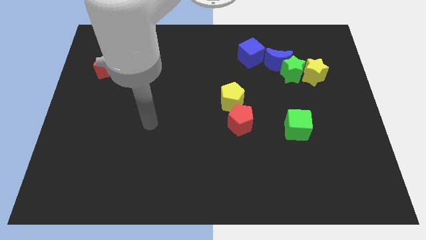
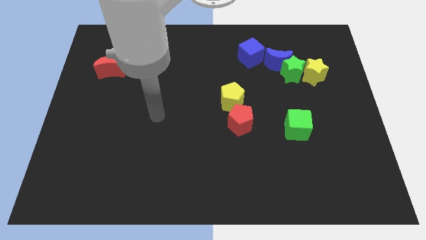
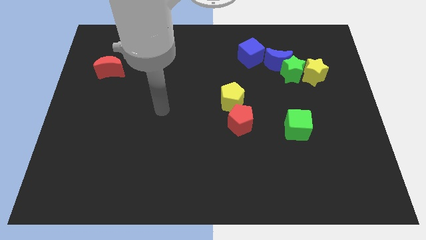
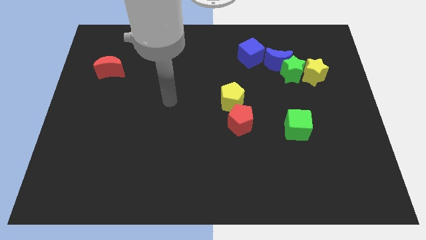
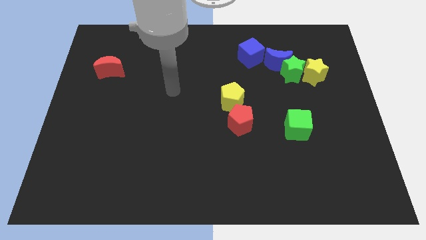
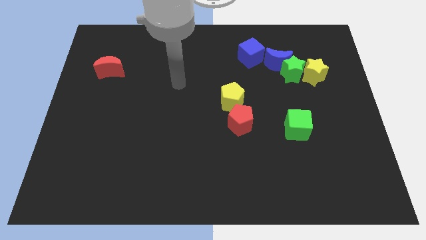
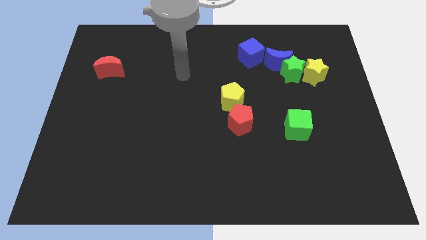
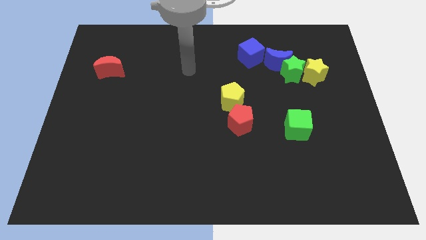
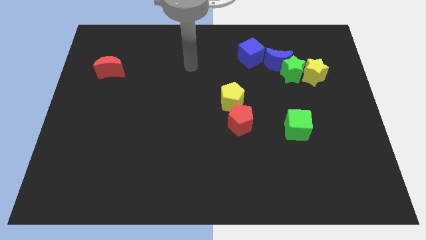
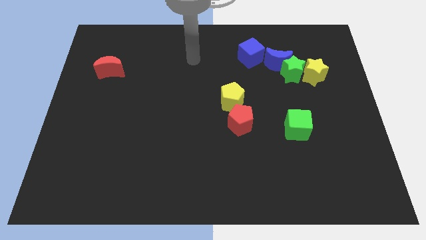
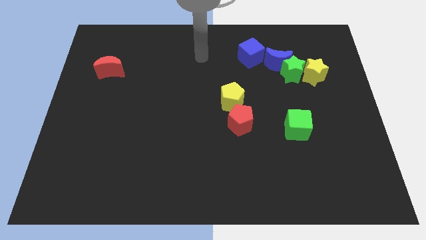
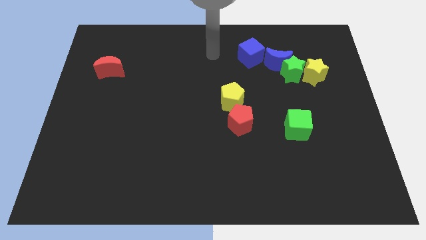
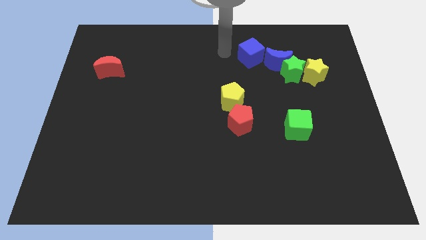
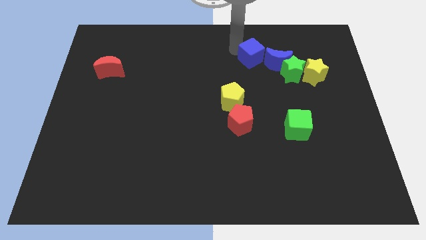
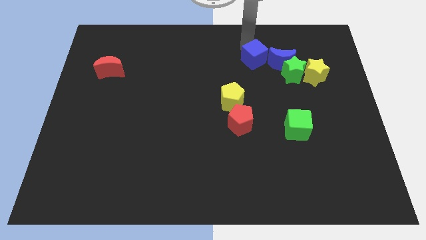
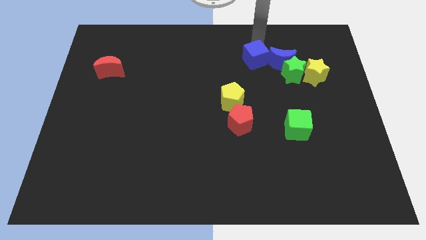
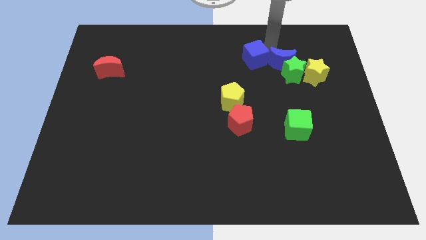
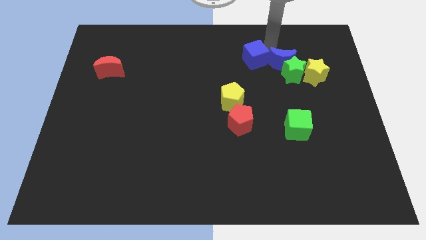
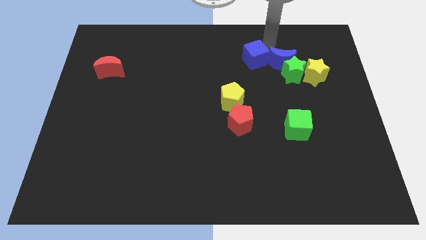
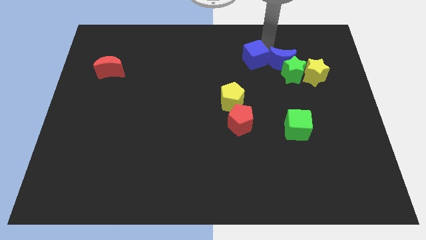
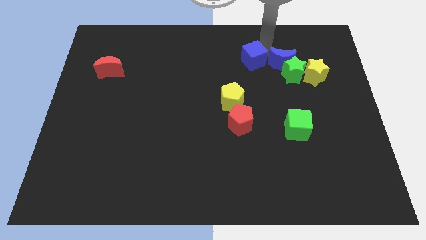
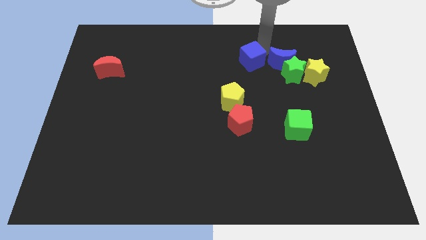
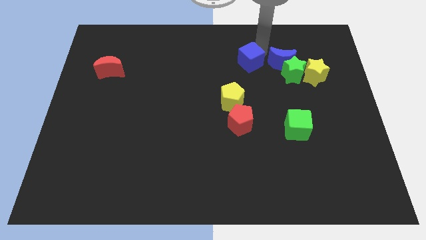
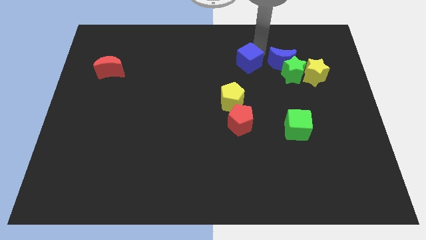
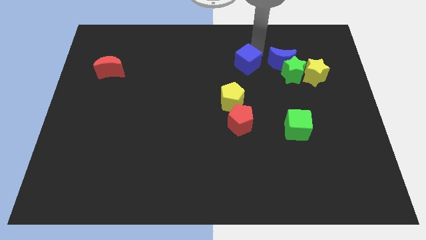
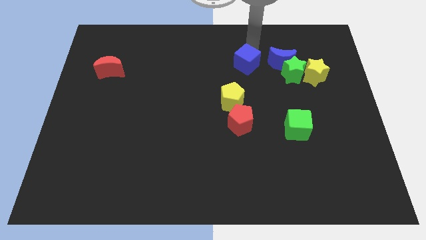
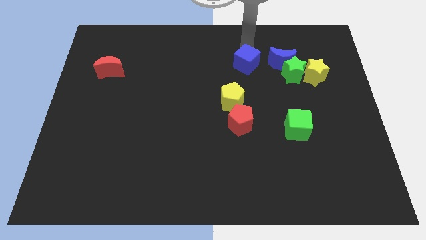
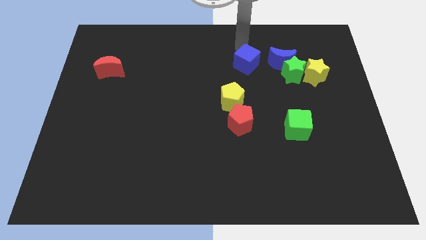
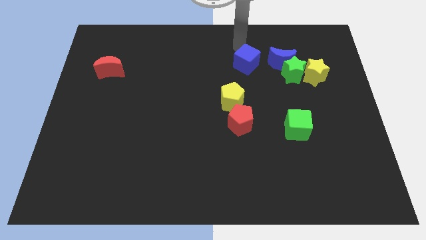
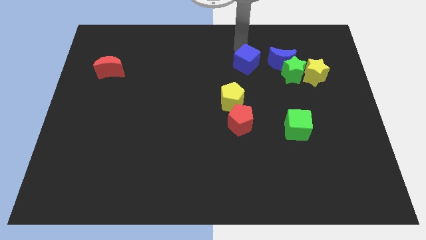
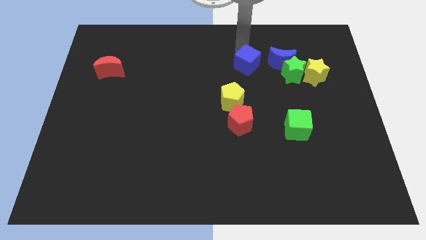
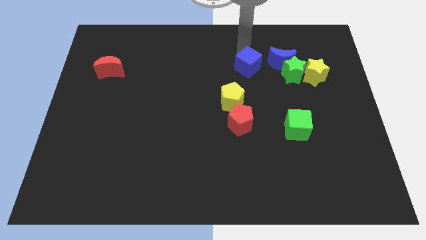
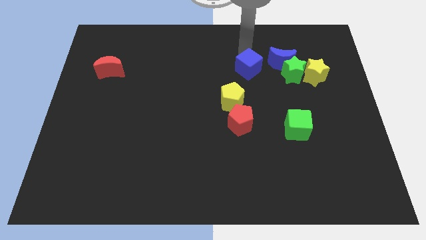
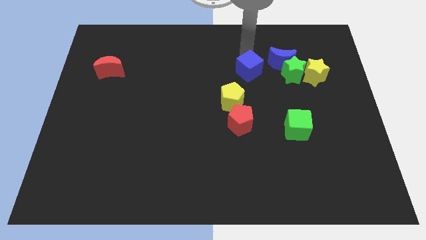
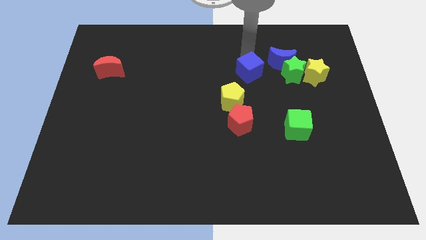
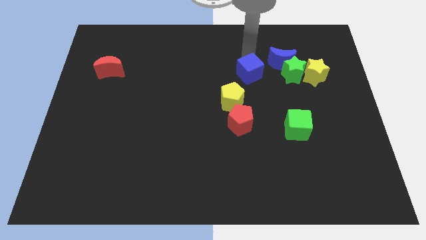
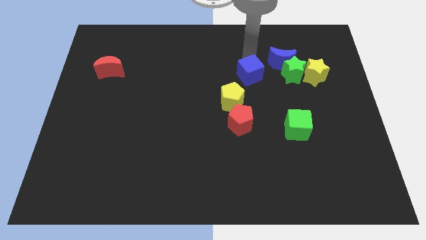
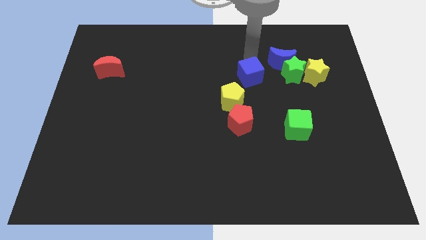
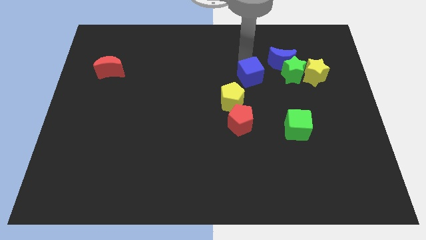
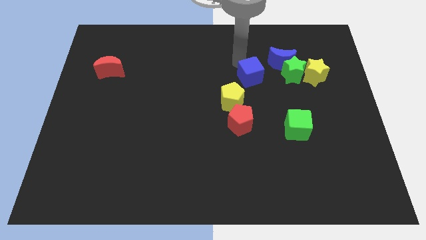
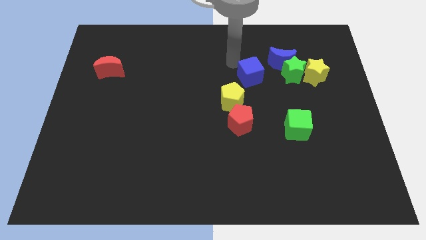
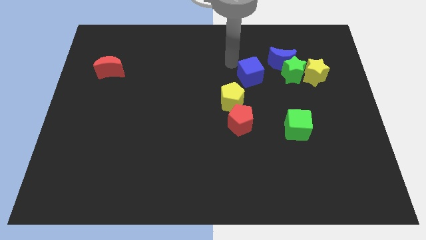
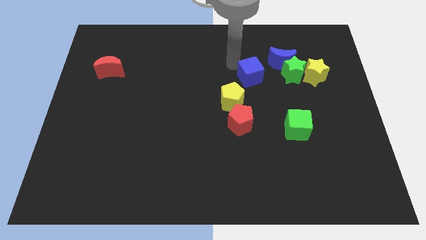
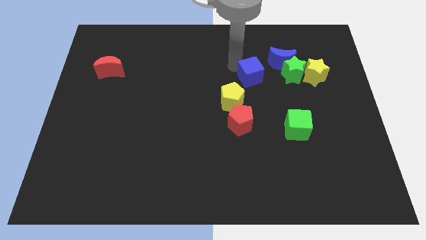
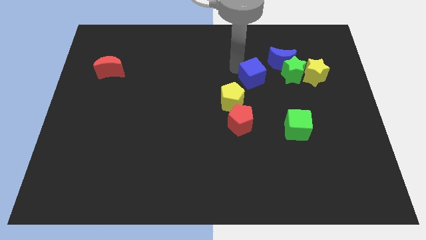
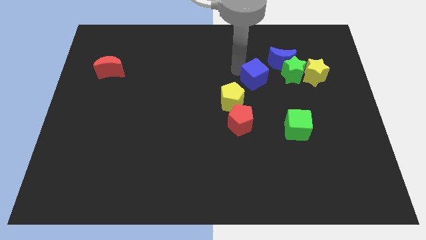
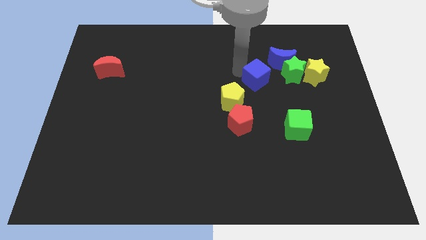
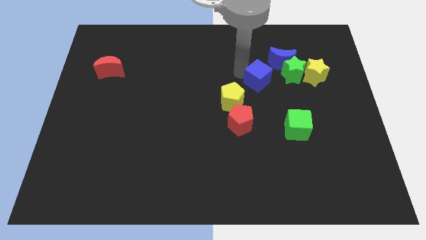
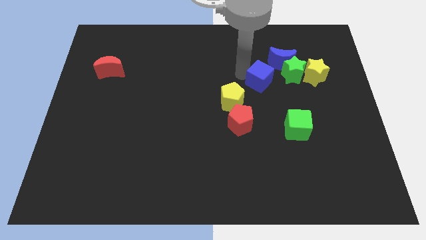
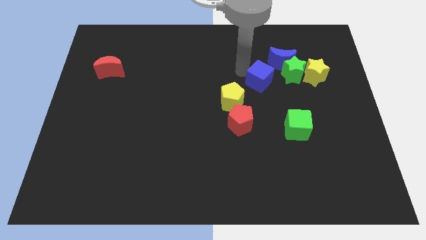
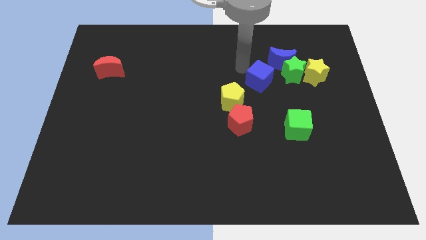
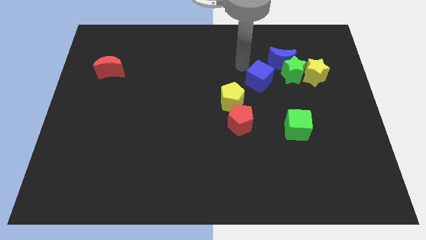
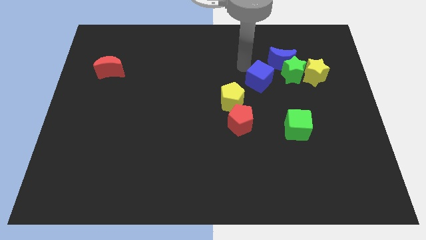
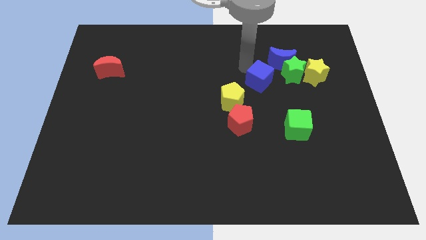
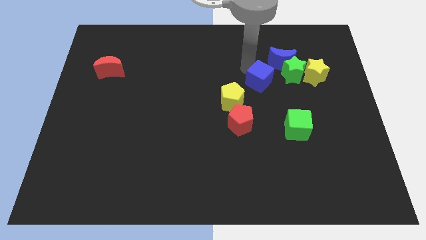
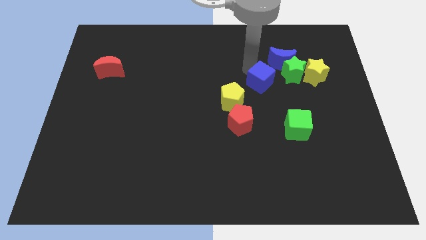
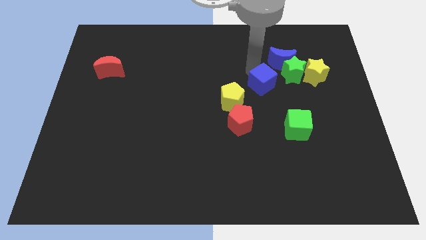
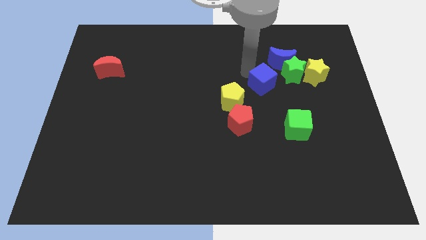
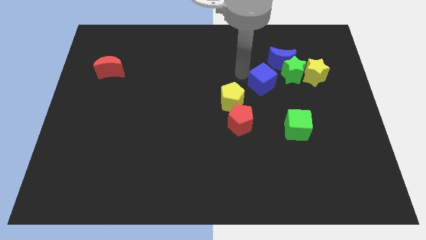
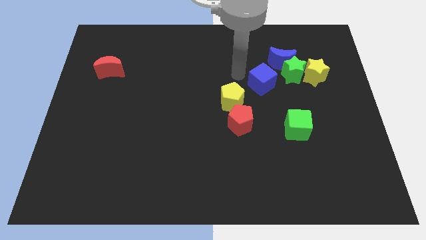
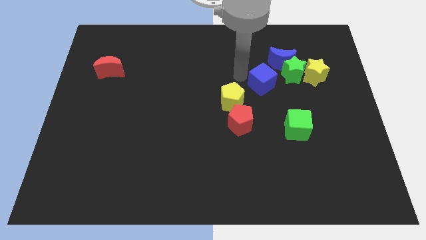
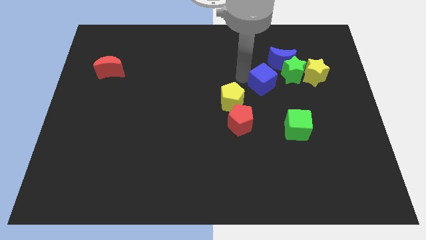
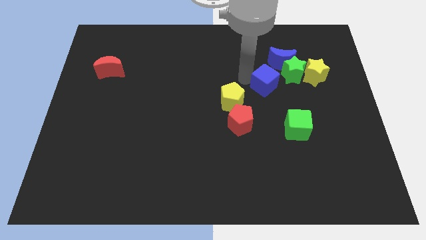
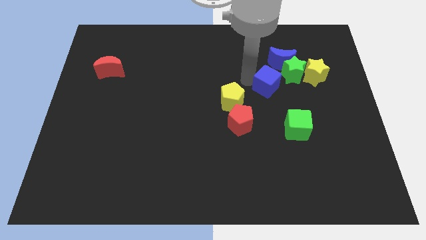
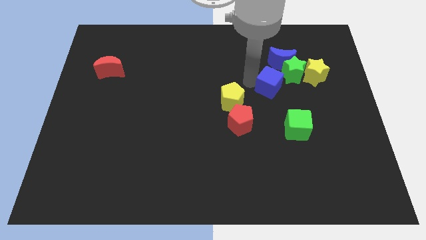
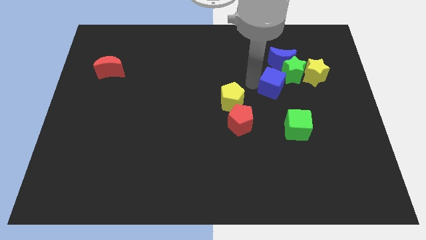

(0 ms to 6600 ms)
push the blue cube to the top side of the green cube

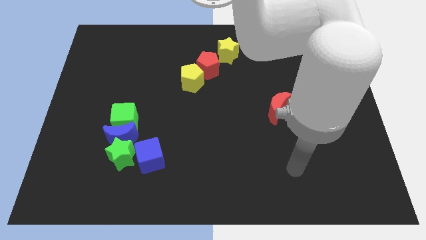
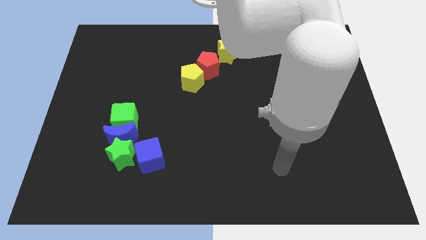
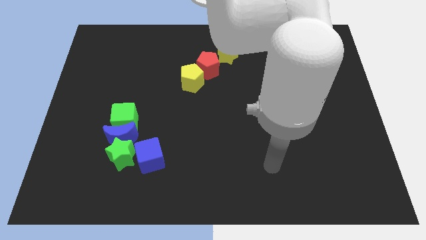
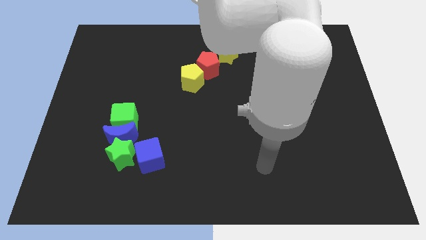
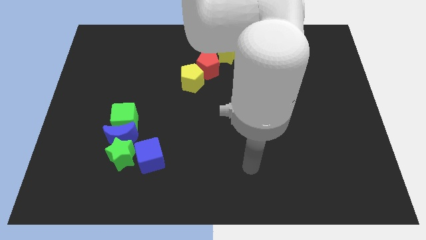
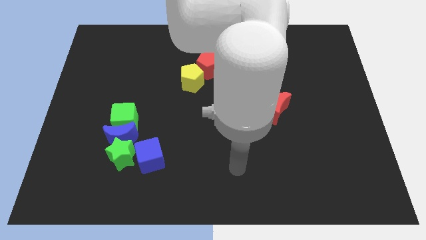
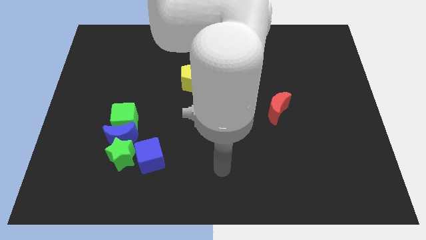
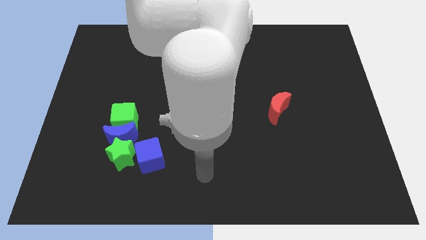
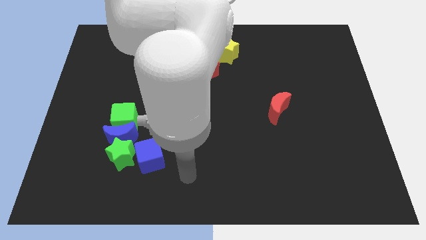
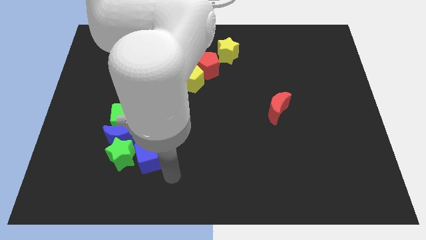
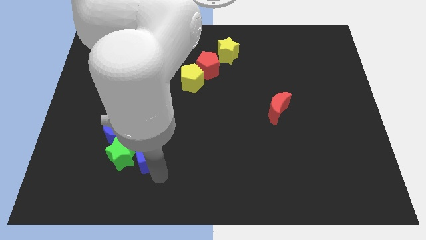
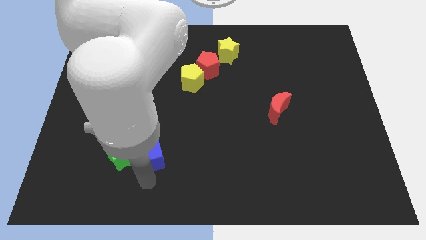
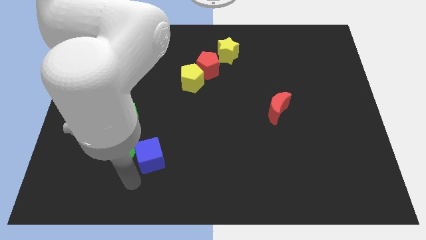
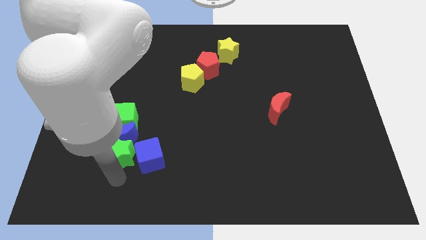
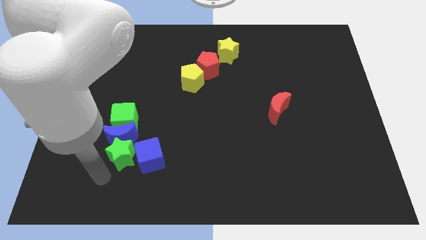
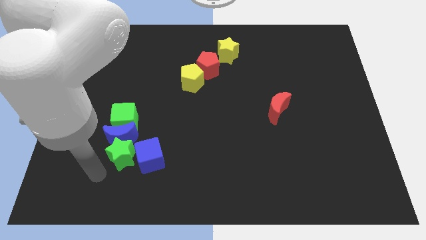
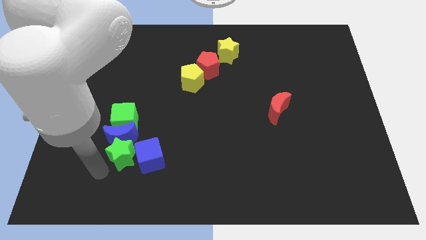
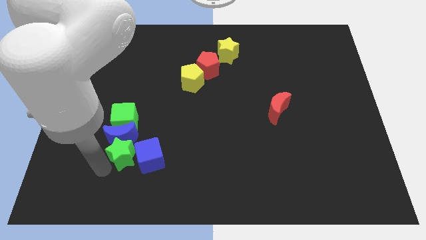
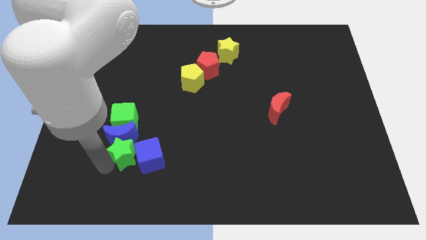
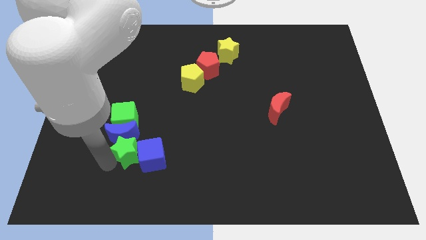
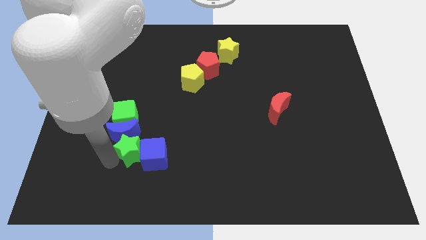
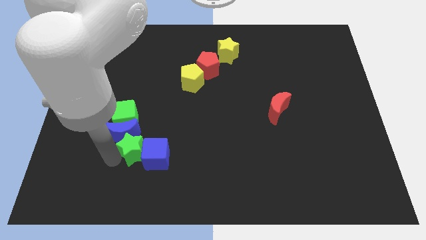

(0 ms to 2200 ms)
push the green star right of the blue moon
